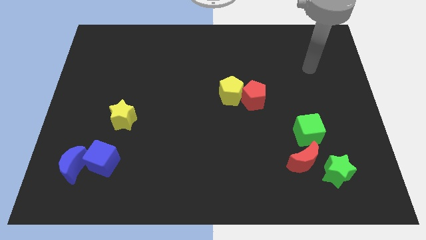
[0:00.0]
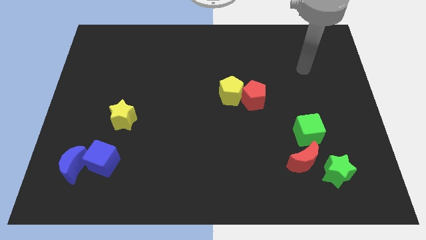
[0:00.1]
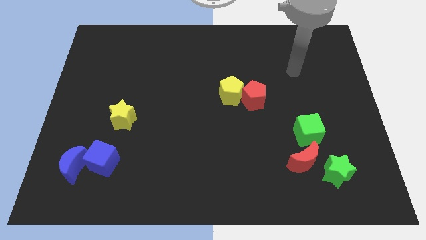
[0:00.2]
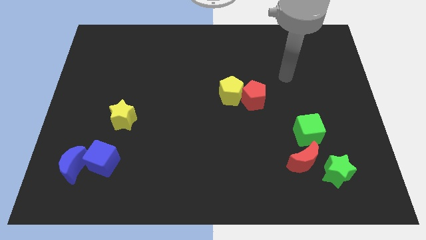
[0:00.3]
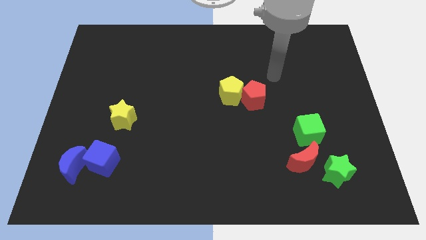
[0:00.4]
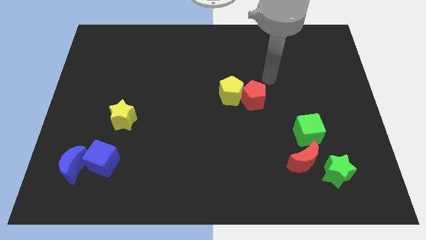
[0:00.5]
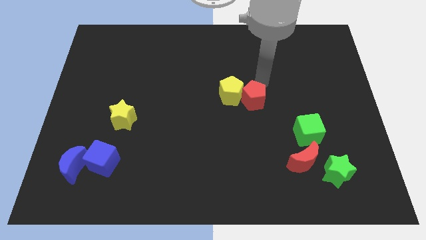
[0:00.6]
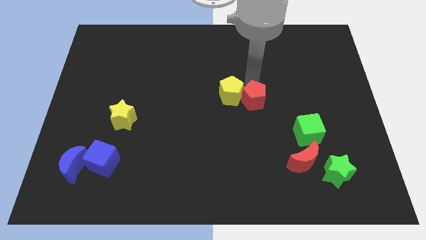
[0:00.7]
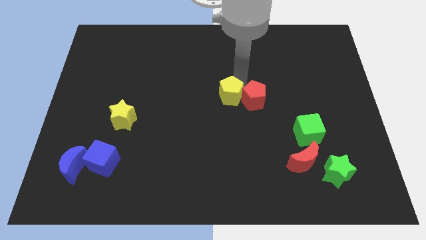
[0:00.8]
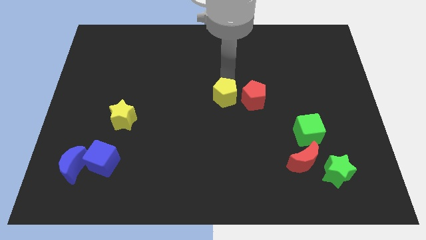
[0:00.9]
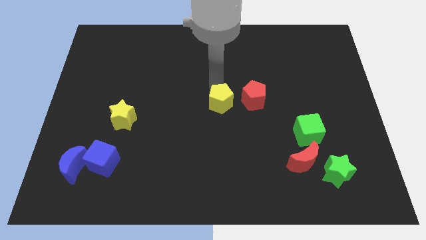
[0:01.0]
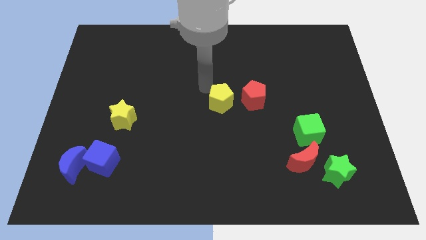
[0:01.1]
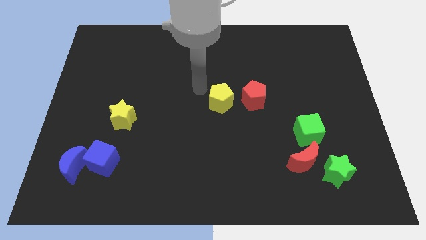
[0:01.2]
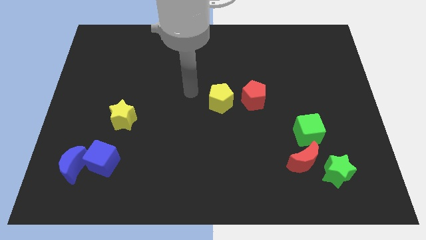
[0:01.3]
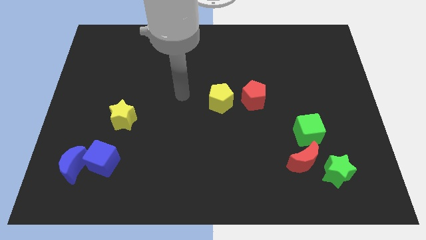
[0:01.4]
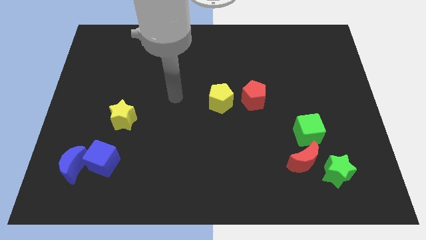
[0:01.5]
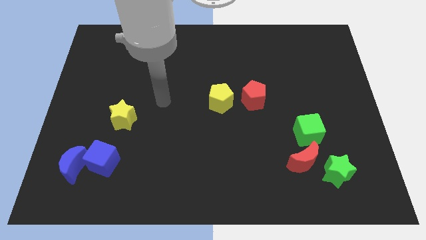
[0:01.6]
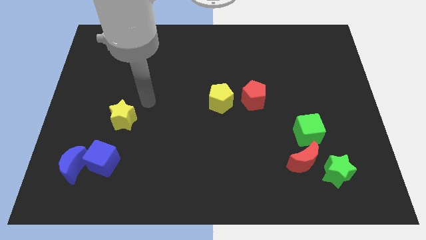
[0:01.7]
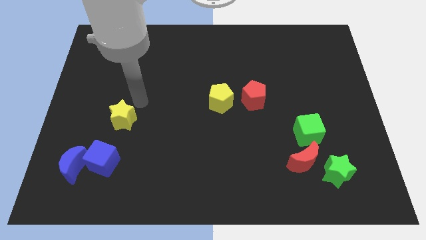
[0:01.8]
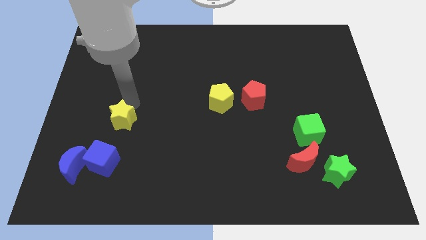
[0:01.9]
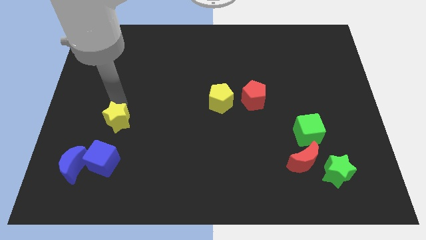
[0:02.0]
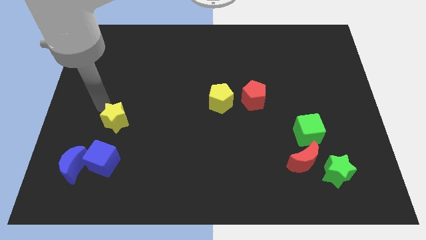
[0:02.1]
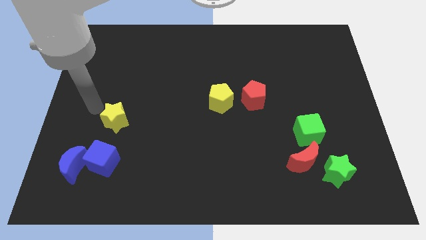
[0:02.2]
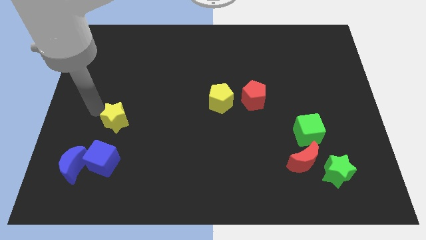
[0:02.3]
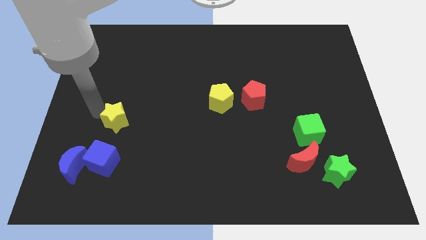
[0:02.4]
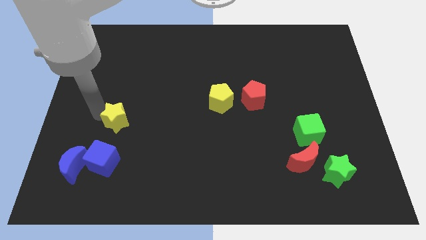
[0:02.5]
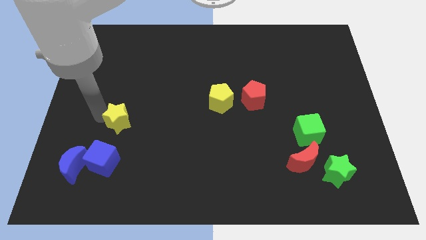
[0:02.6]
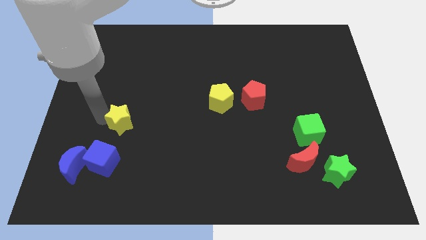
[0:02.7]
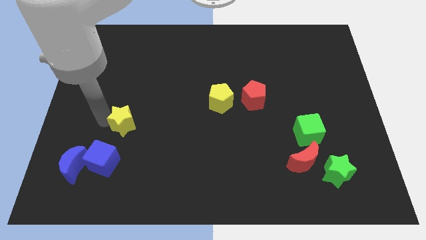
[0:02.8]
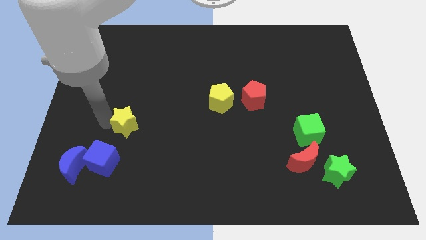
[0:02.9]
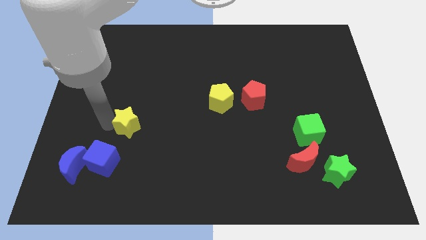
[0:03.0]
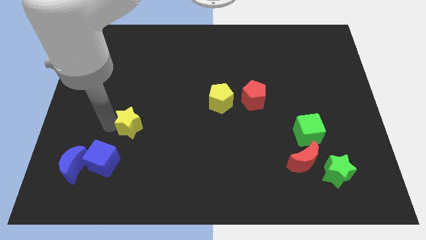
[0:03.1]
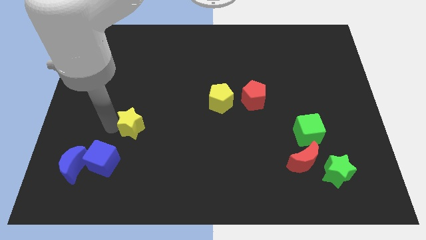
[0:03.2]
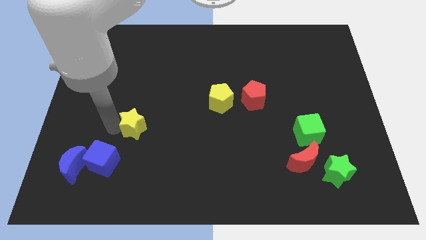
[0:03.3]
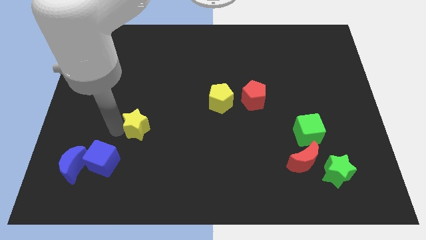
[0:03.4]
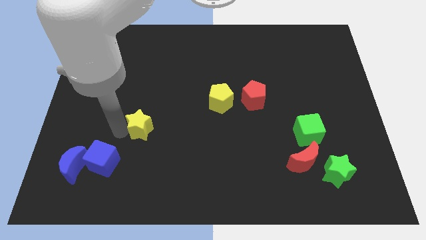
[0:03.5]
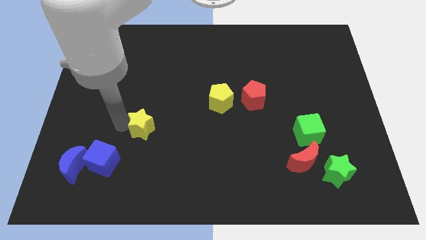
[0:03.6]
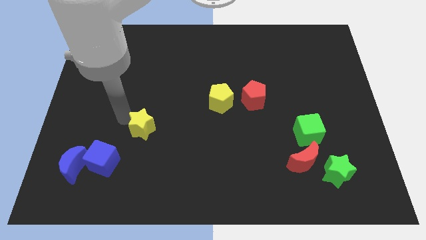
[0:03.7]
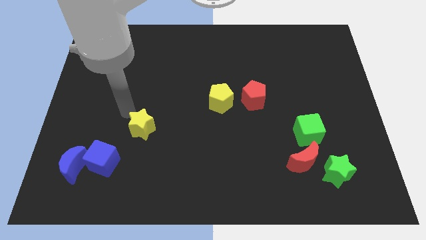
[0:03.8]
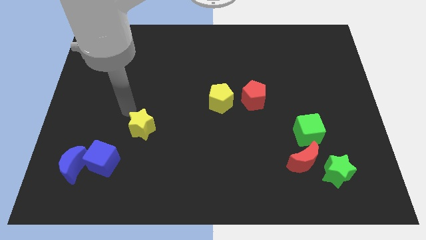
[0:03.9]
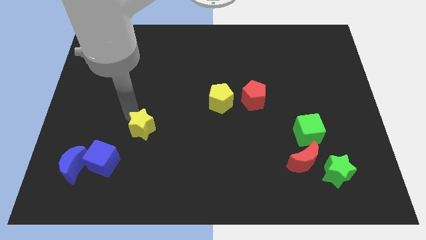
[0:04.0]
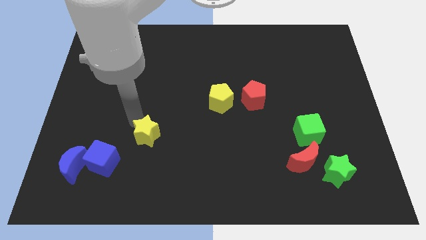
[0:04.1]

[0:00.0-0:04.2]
push the yellow star a bit downwards and right diagonally

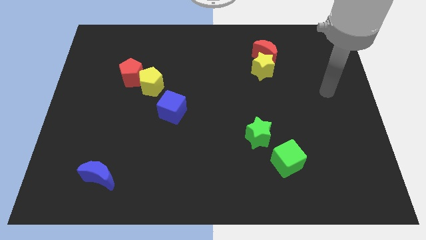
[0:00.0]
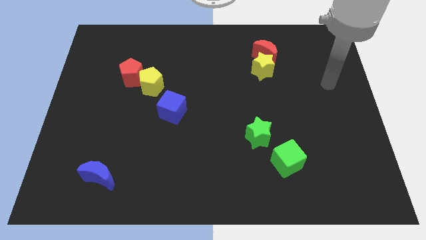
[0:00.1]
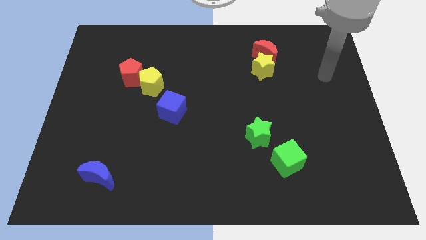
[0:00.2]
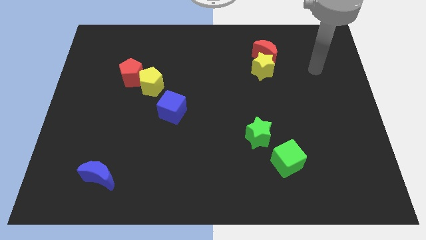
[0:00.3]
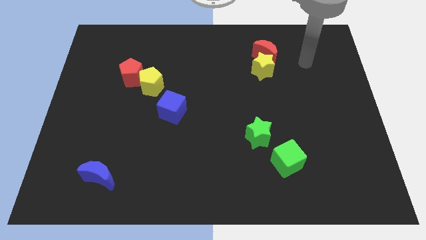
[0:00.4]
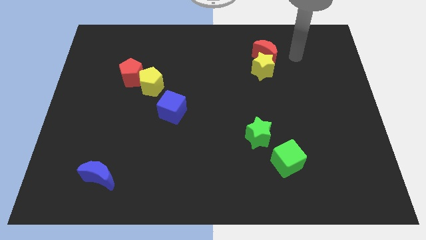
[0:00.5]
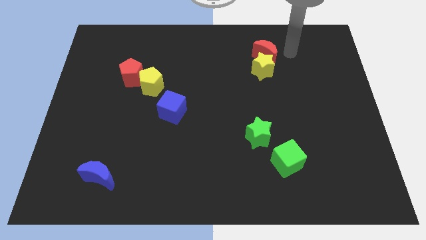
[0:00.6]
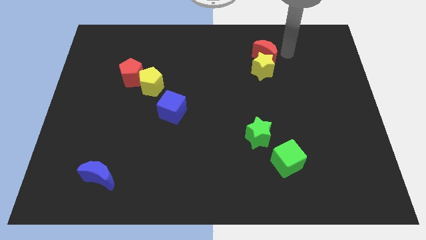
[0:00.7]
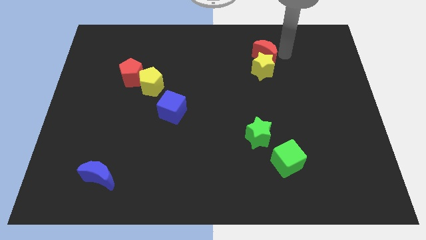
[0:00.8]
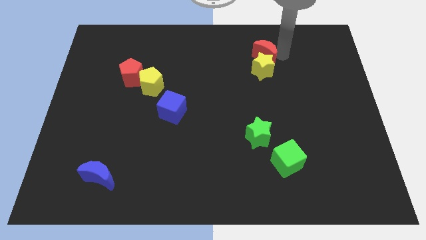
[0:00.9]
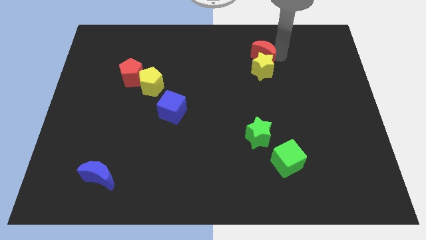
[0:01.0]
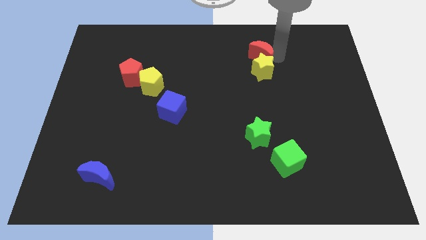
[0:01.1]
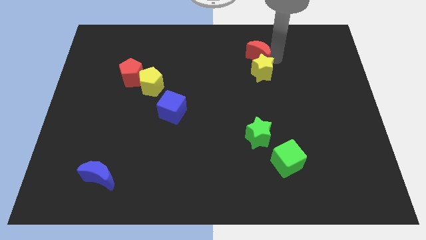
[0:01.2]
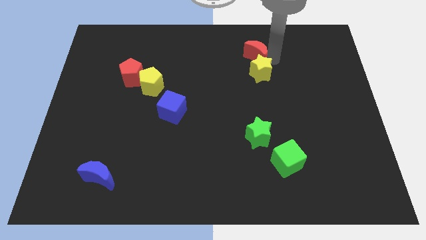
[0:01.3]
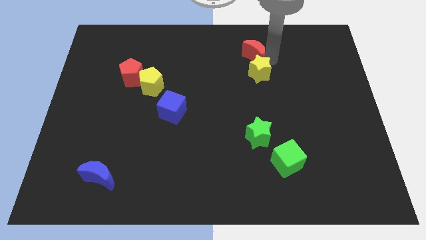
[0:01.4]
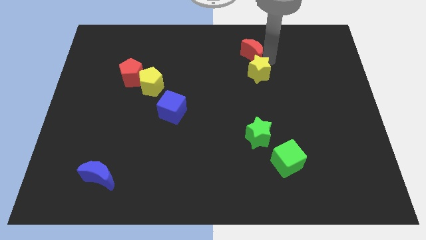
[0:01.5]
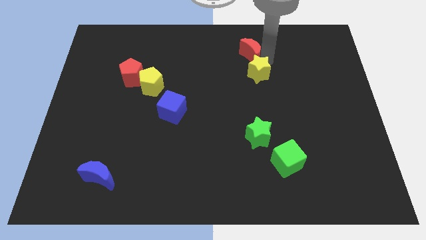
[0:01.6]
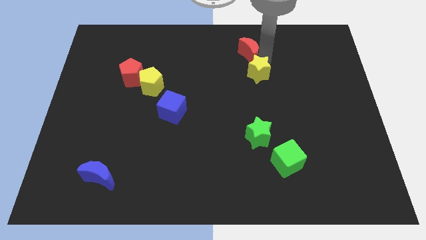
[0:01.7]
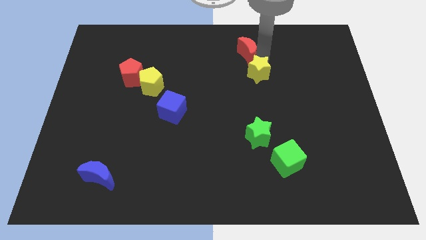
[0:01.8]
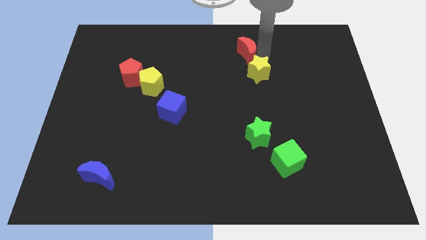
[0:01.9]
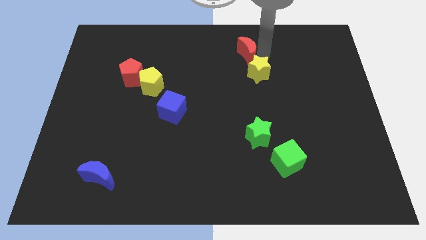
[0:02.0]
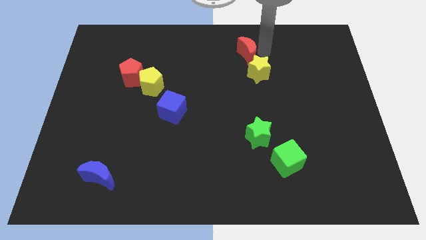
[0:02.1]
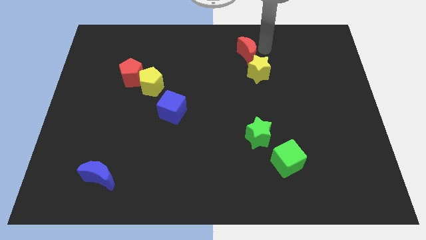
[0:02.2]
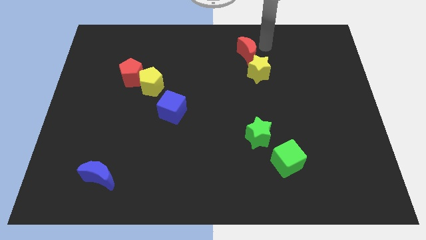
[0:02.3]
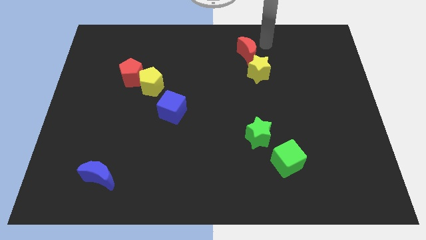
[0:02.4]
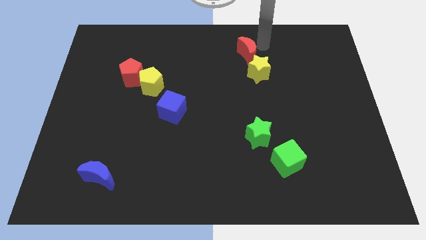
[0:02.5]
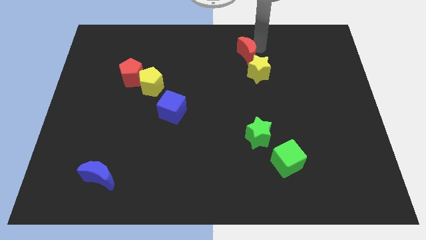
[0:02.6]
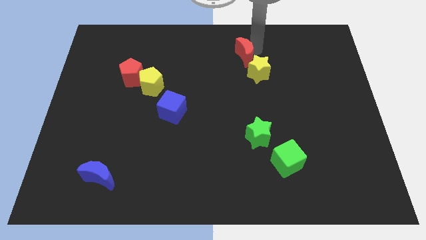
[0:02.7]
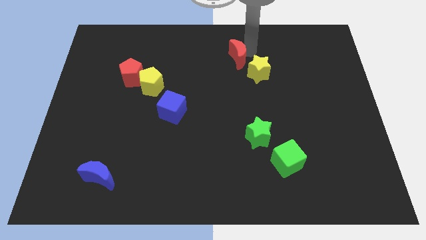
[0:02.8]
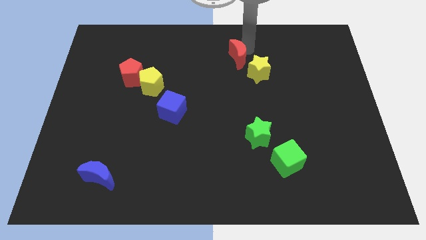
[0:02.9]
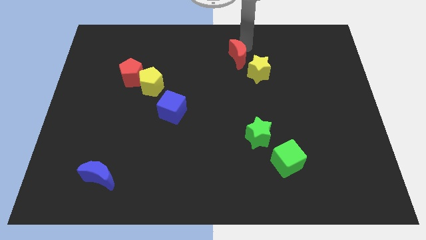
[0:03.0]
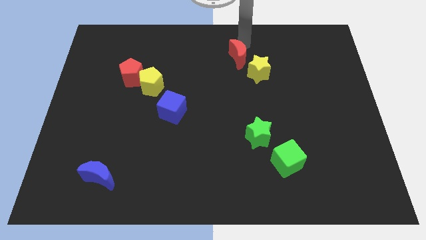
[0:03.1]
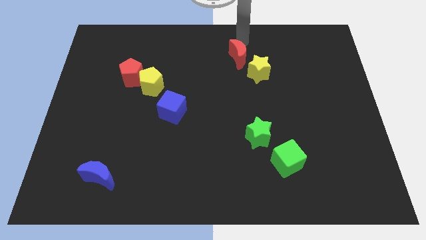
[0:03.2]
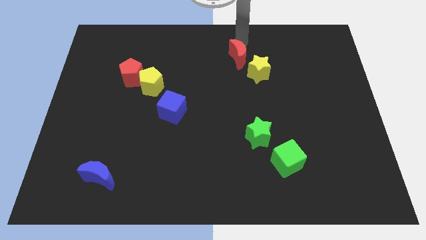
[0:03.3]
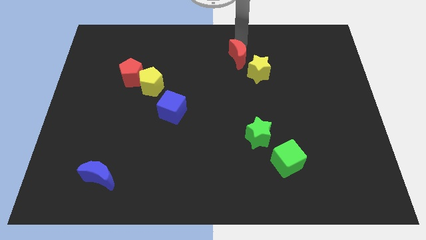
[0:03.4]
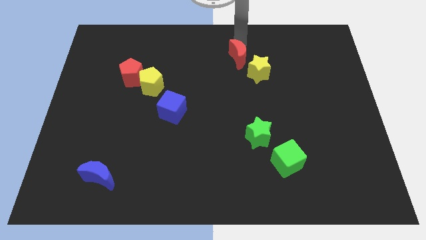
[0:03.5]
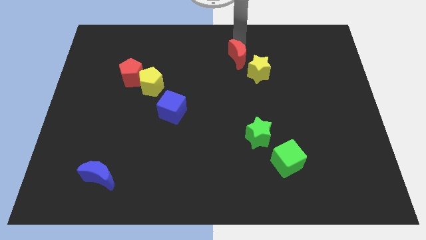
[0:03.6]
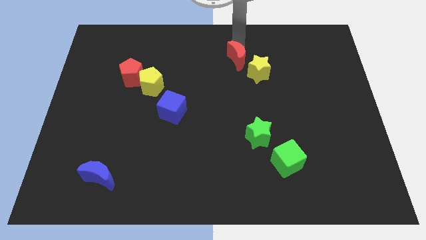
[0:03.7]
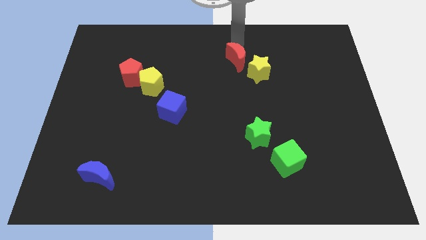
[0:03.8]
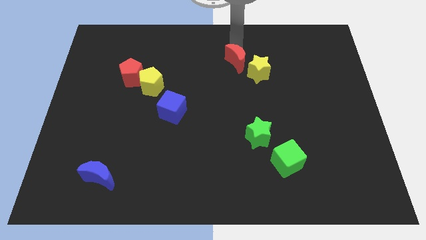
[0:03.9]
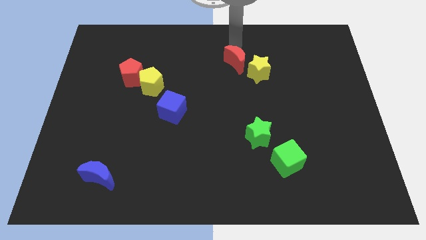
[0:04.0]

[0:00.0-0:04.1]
push the red moon diagonally downwards and to the left slightly

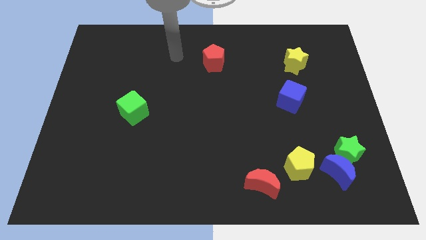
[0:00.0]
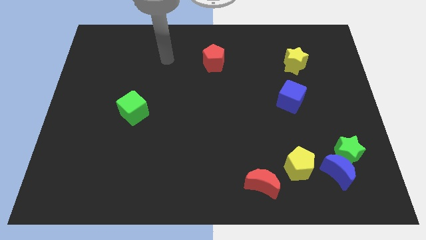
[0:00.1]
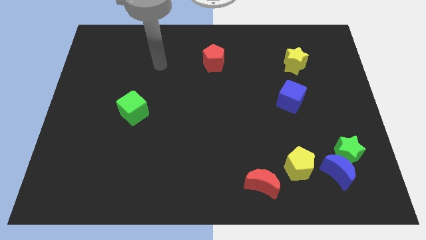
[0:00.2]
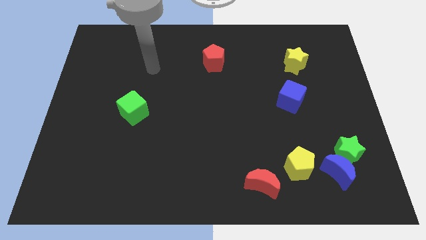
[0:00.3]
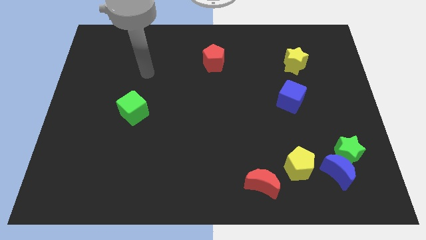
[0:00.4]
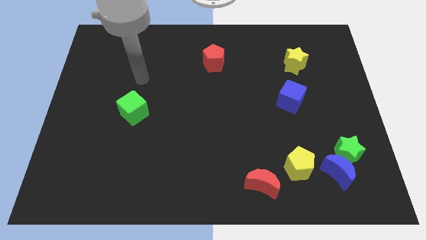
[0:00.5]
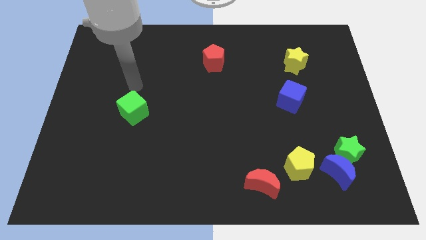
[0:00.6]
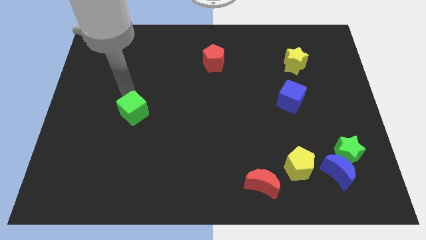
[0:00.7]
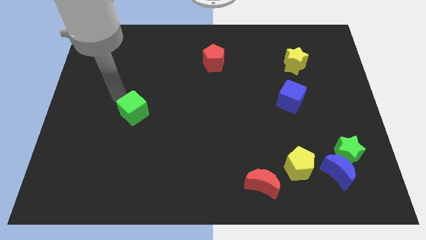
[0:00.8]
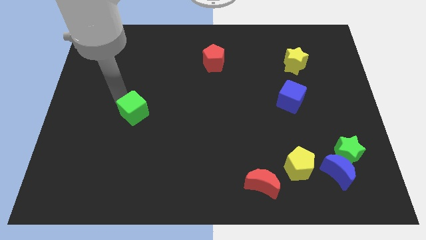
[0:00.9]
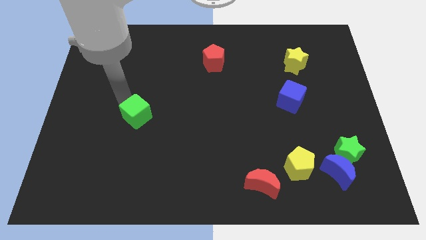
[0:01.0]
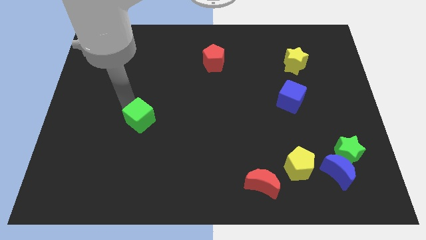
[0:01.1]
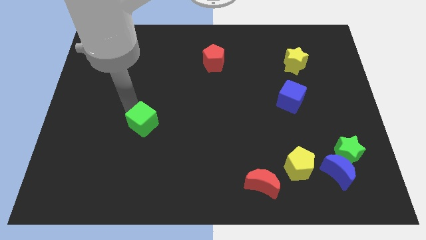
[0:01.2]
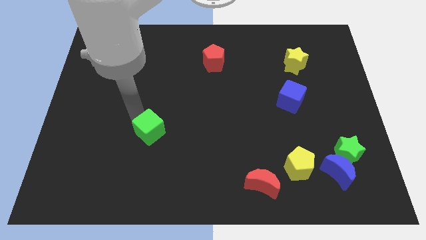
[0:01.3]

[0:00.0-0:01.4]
slide the green cube somewhat diagonally down and to the right
